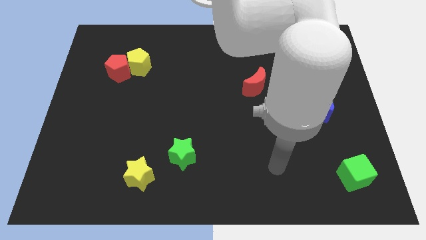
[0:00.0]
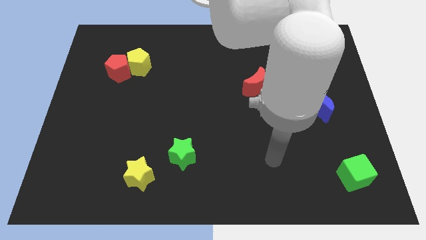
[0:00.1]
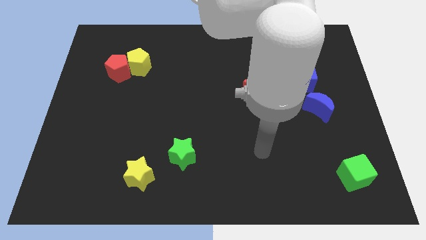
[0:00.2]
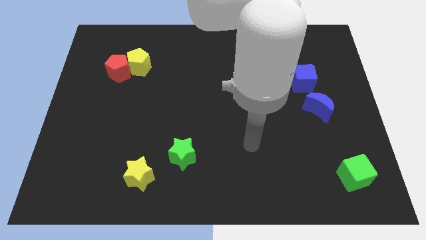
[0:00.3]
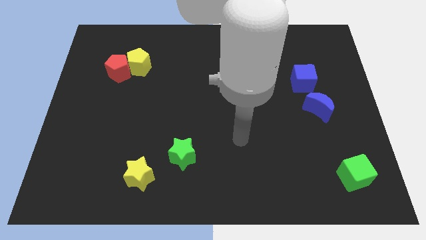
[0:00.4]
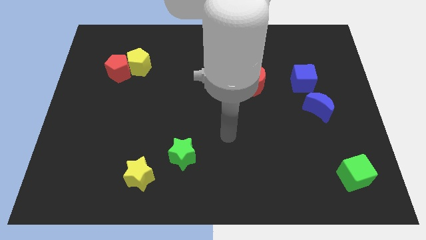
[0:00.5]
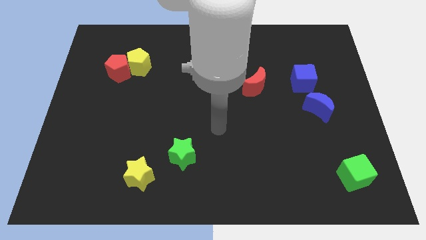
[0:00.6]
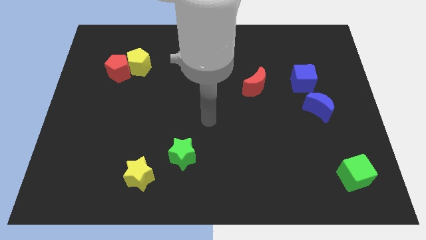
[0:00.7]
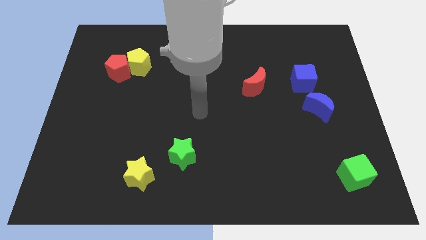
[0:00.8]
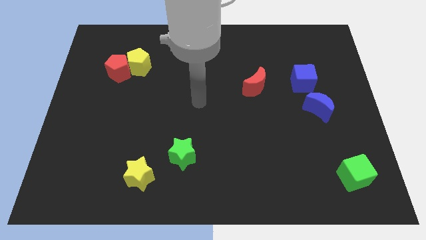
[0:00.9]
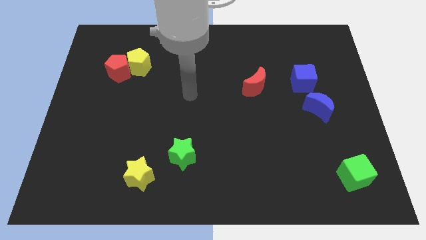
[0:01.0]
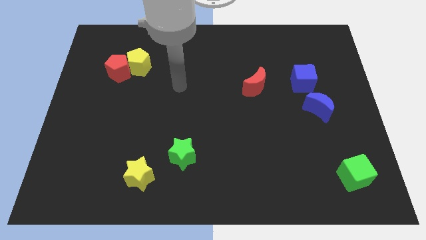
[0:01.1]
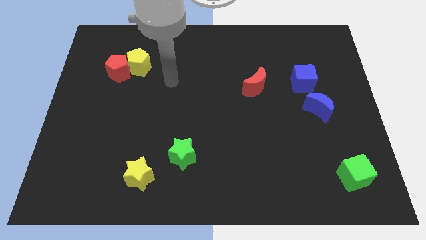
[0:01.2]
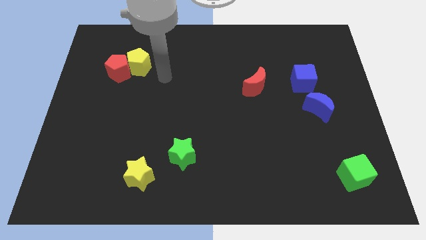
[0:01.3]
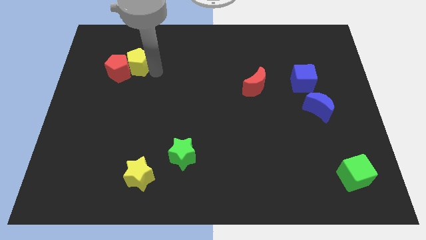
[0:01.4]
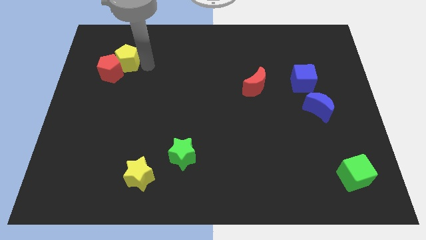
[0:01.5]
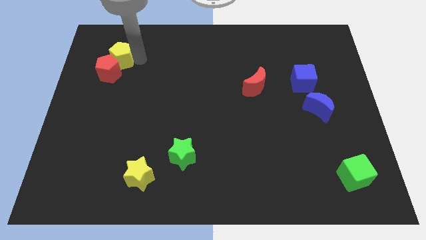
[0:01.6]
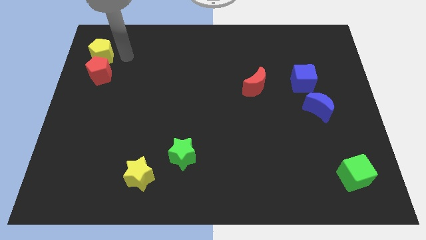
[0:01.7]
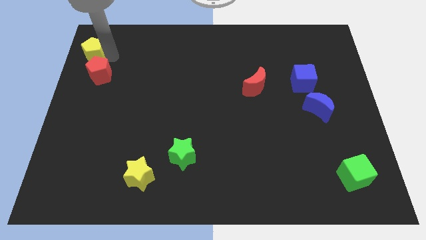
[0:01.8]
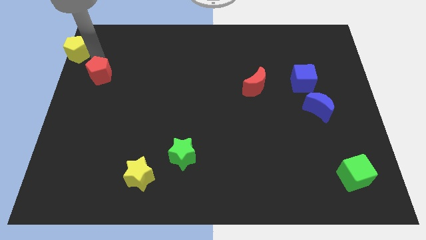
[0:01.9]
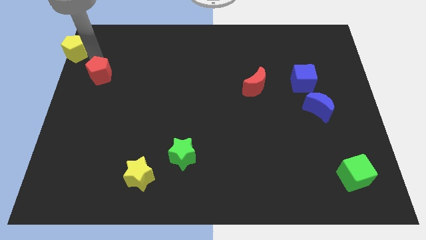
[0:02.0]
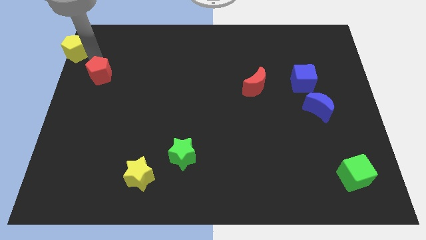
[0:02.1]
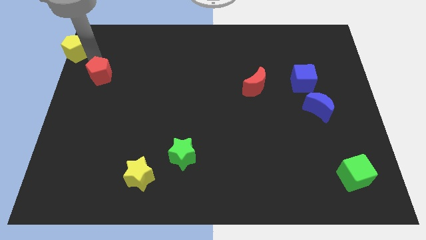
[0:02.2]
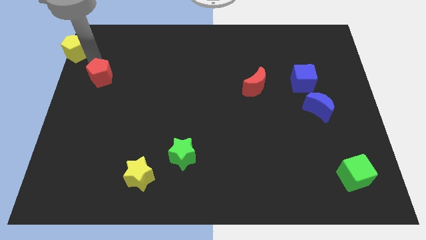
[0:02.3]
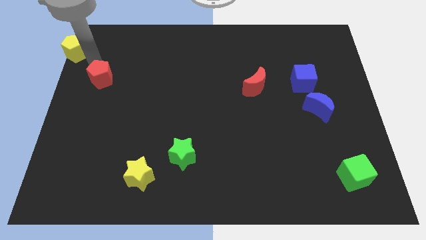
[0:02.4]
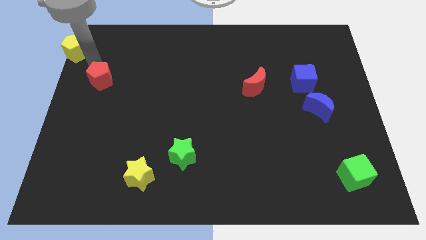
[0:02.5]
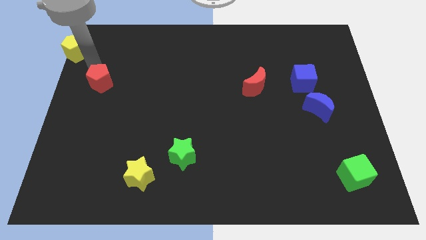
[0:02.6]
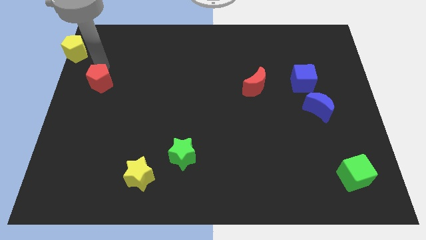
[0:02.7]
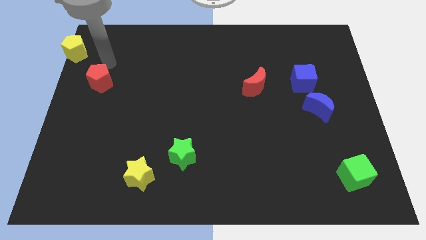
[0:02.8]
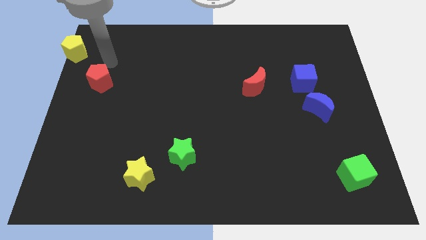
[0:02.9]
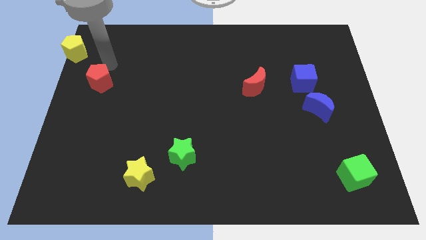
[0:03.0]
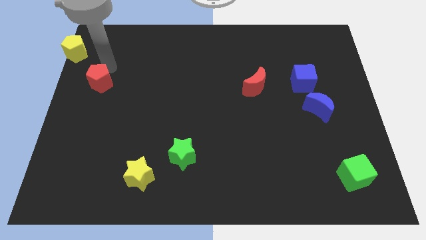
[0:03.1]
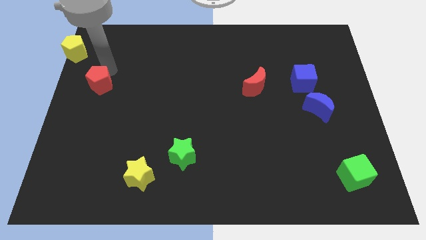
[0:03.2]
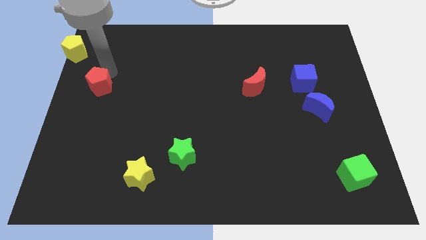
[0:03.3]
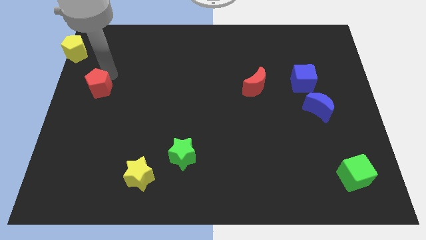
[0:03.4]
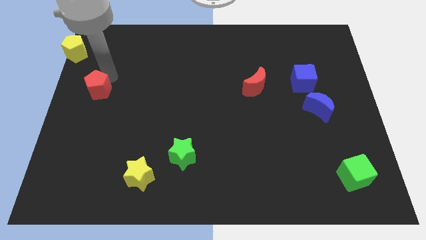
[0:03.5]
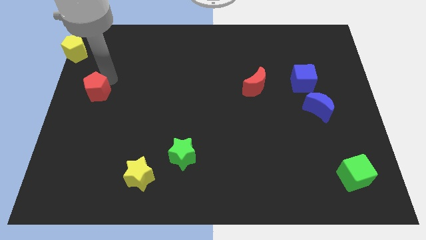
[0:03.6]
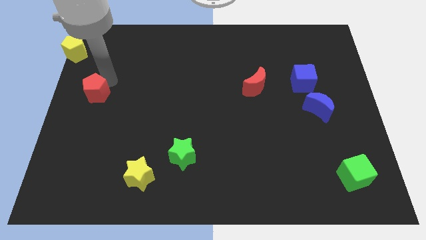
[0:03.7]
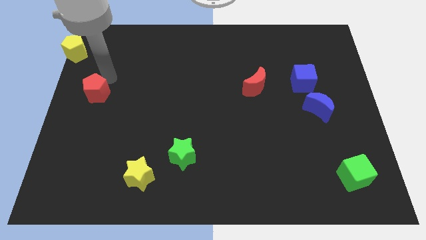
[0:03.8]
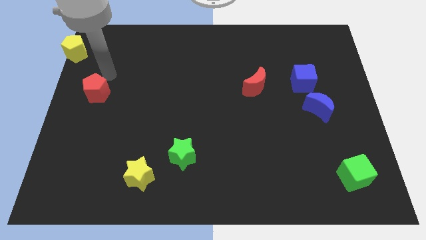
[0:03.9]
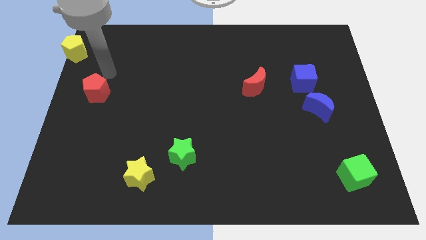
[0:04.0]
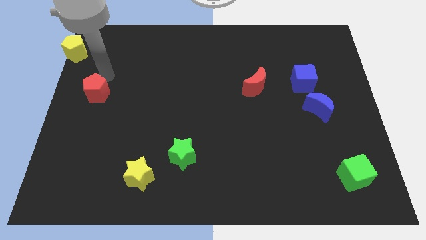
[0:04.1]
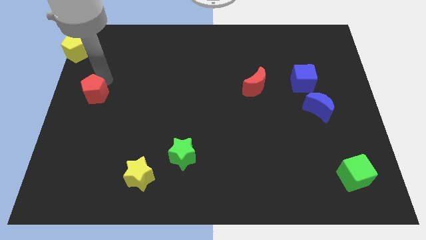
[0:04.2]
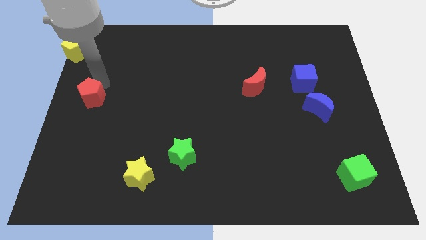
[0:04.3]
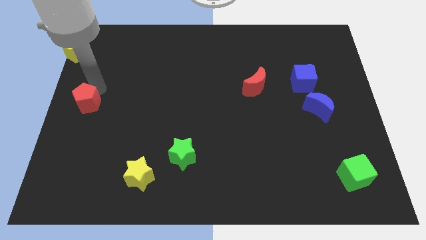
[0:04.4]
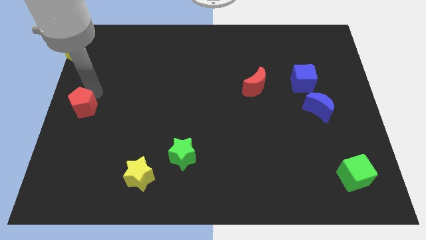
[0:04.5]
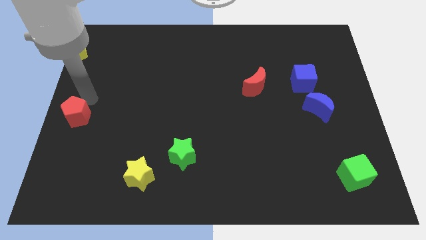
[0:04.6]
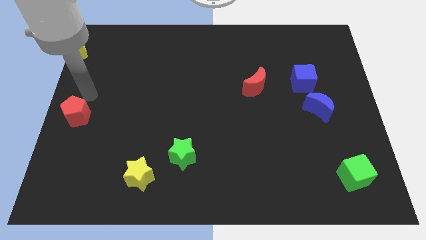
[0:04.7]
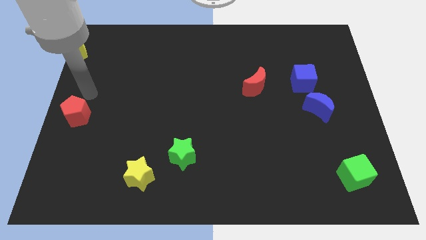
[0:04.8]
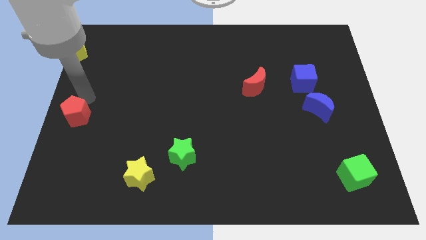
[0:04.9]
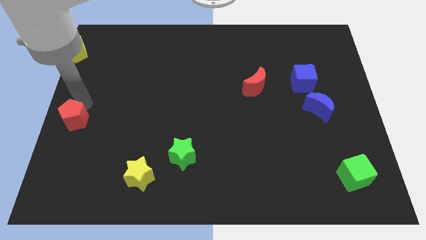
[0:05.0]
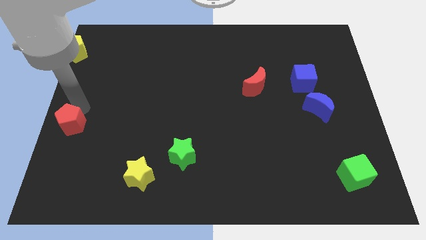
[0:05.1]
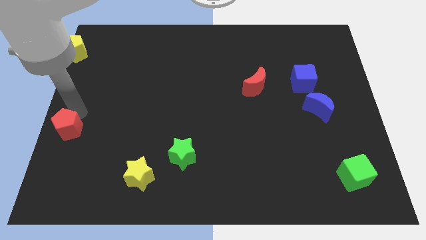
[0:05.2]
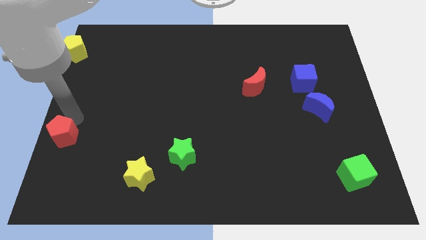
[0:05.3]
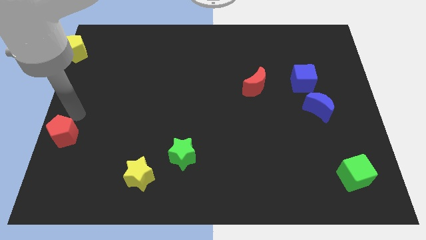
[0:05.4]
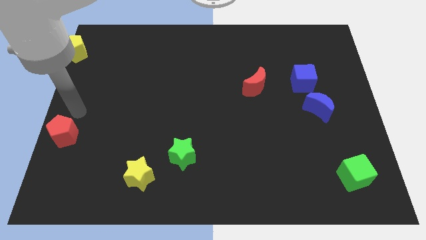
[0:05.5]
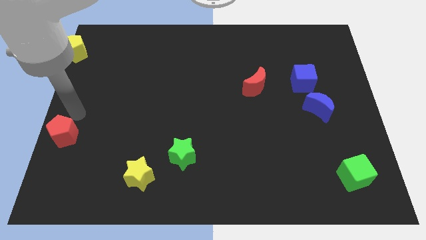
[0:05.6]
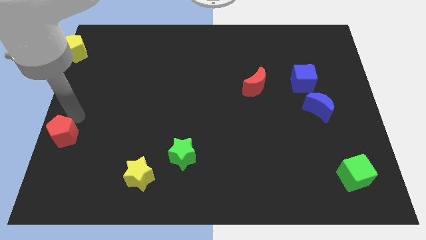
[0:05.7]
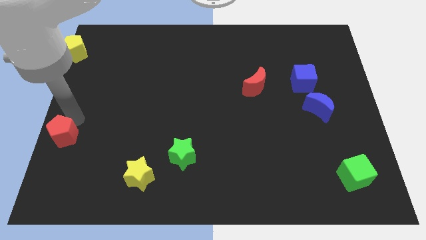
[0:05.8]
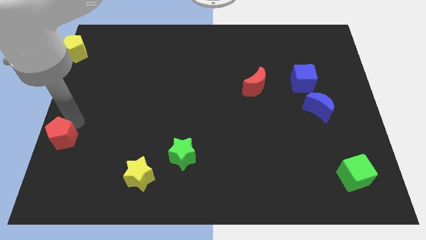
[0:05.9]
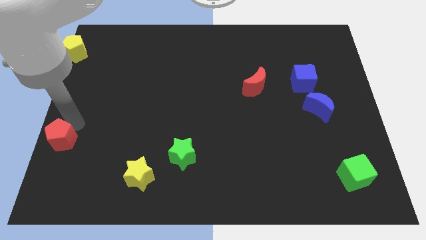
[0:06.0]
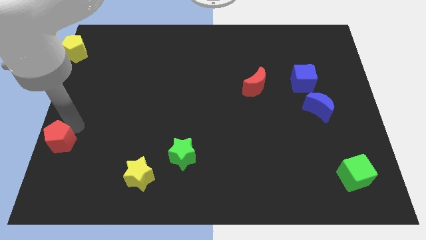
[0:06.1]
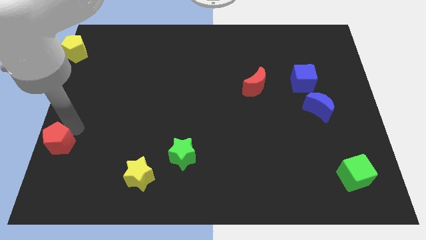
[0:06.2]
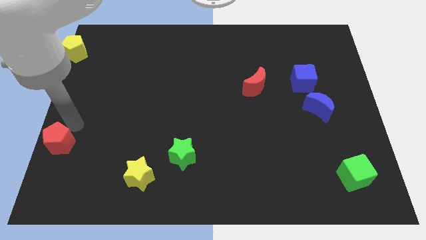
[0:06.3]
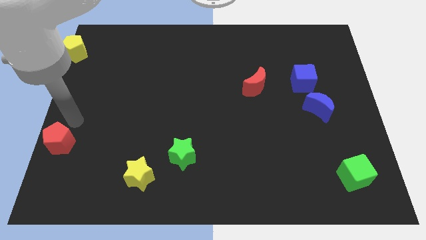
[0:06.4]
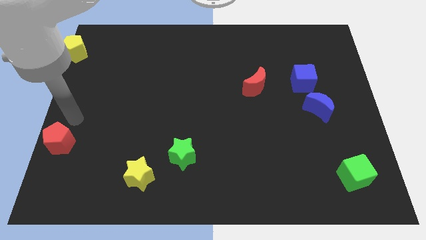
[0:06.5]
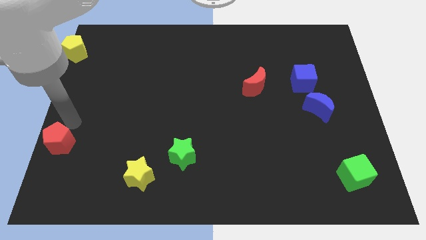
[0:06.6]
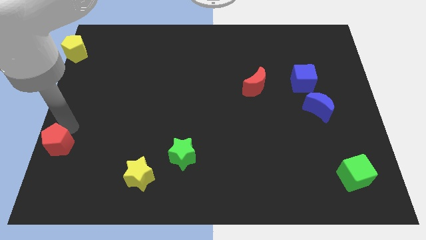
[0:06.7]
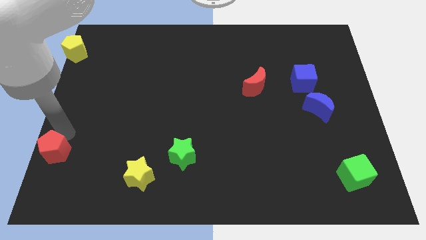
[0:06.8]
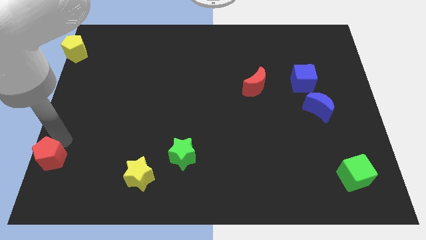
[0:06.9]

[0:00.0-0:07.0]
push the red pentagon to the bottom left corner
